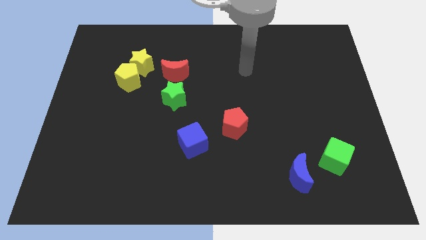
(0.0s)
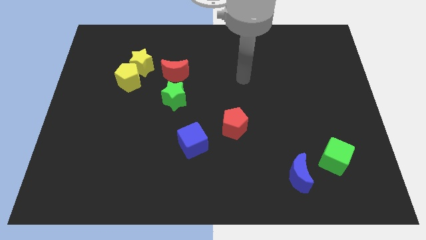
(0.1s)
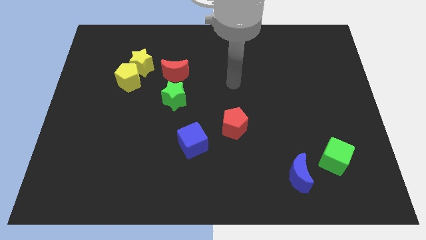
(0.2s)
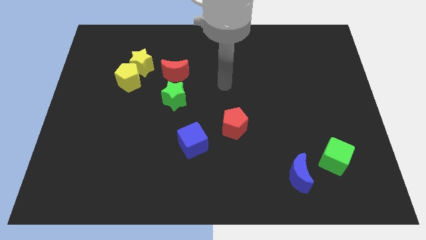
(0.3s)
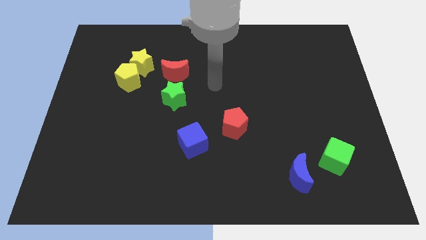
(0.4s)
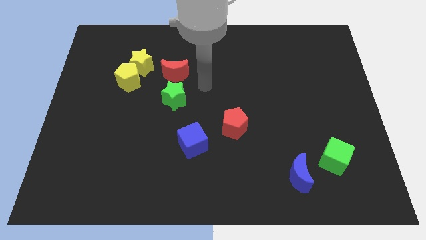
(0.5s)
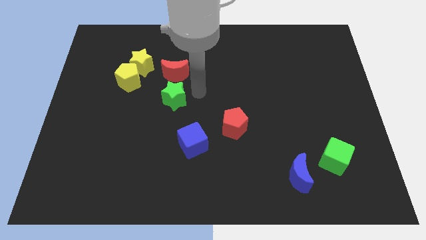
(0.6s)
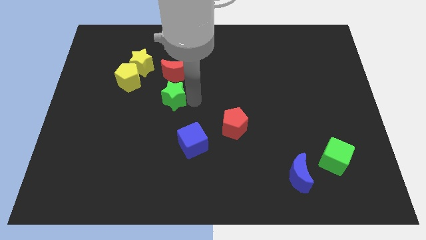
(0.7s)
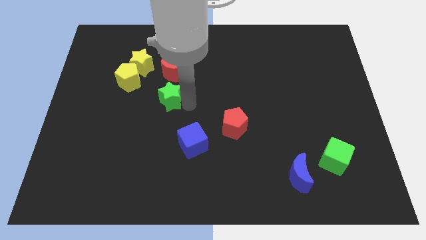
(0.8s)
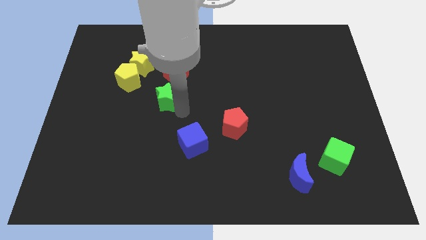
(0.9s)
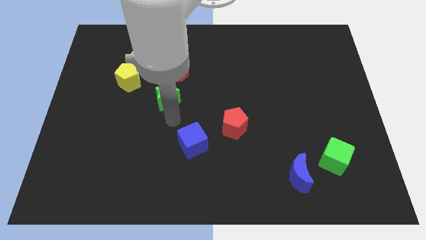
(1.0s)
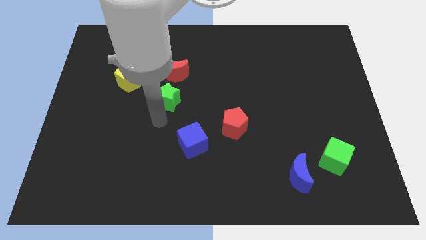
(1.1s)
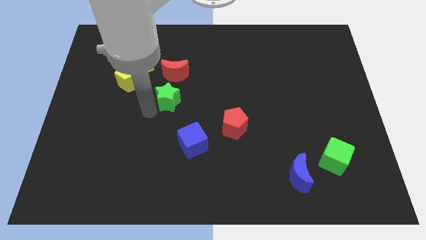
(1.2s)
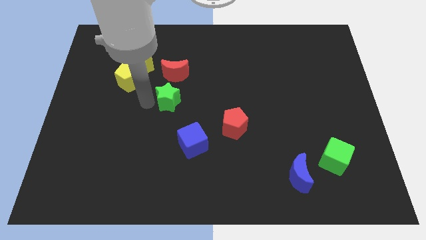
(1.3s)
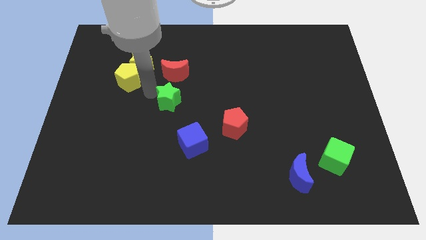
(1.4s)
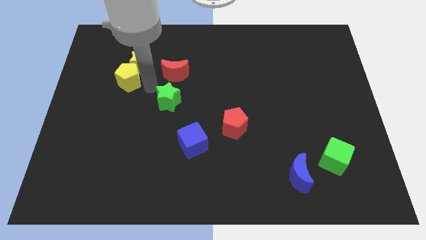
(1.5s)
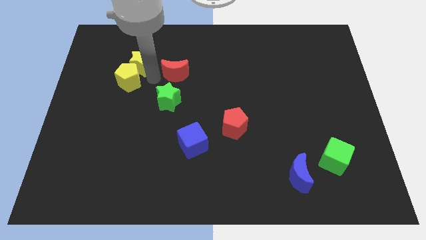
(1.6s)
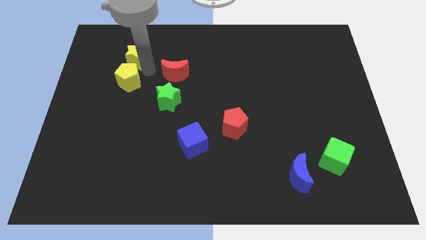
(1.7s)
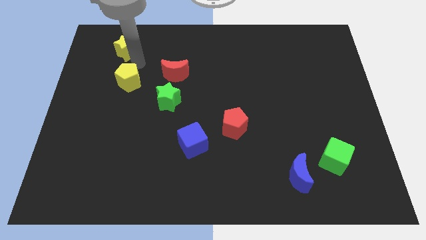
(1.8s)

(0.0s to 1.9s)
pull the yellow pentagon apart from the yellow star

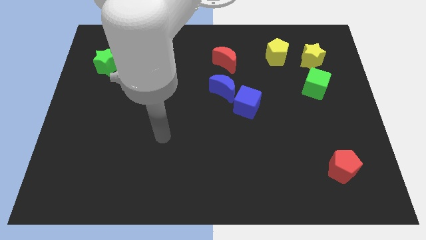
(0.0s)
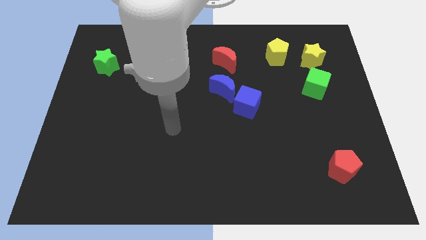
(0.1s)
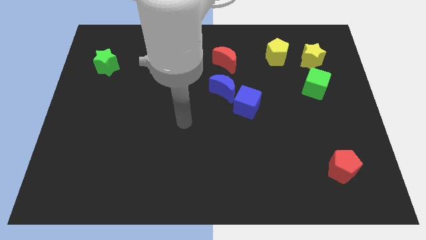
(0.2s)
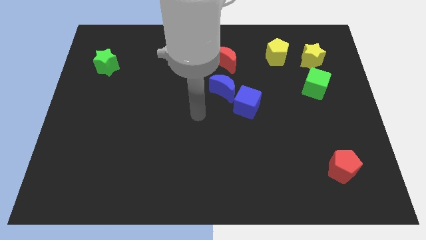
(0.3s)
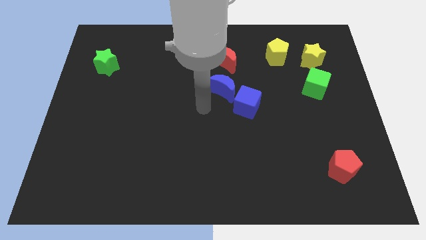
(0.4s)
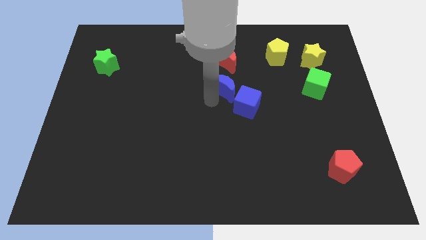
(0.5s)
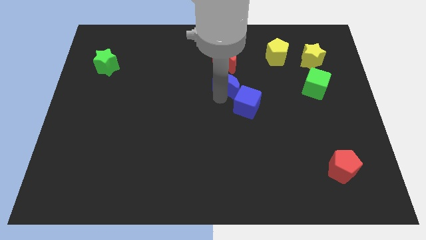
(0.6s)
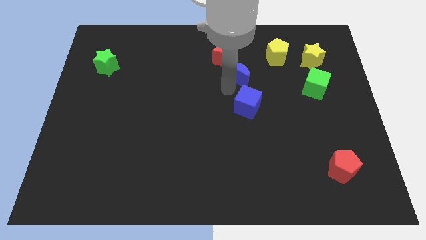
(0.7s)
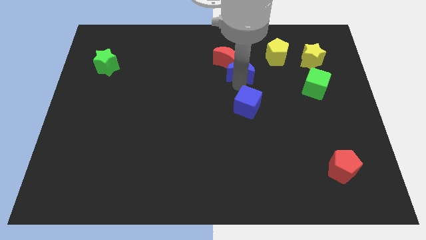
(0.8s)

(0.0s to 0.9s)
separate the blue cube from the blue moon

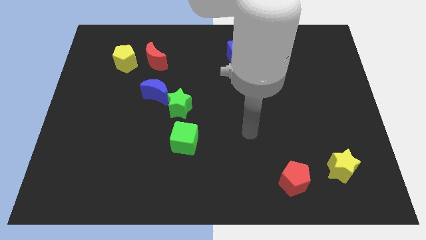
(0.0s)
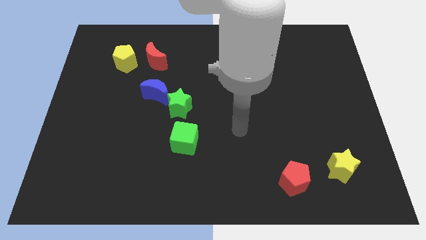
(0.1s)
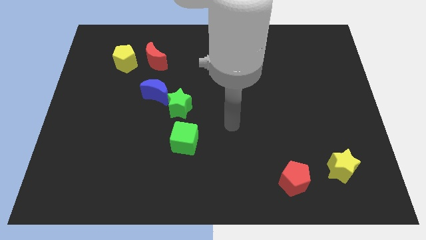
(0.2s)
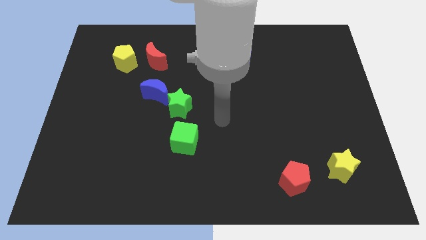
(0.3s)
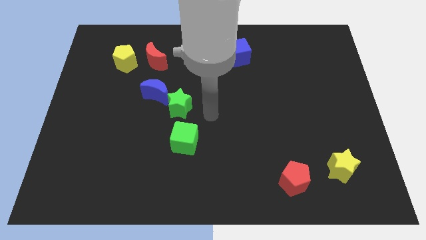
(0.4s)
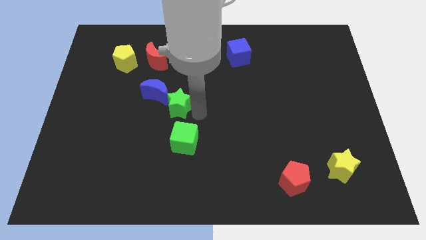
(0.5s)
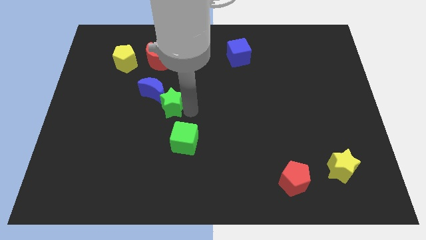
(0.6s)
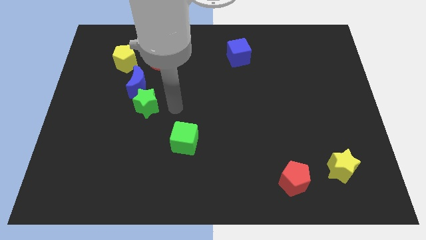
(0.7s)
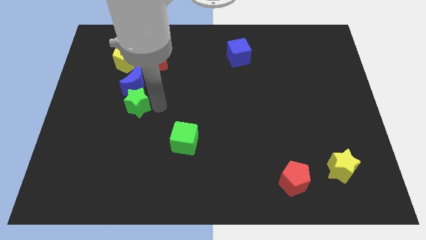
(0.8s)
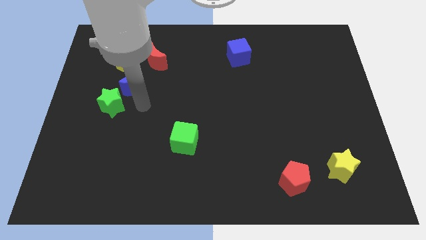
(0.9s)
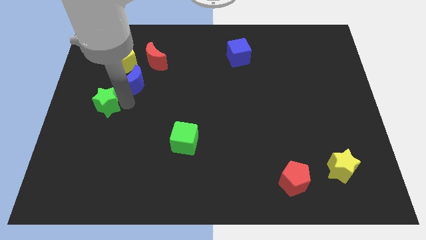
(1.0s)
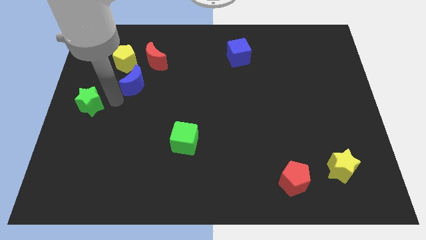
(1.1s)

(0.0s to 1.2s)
pull the blue moon apart from the green star

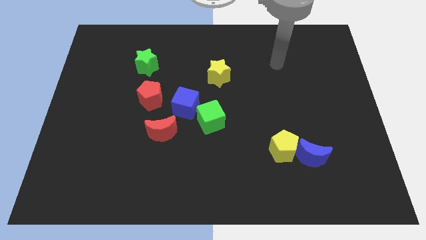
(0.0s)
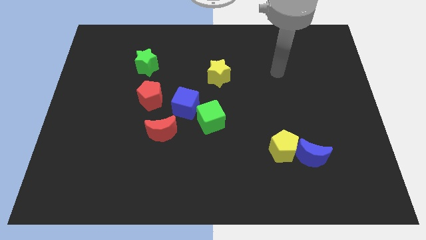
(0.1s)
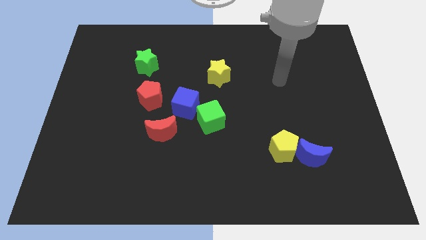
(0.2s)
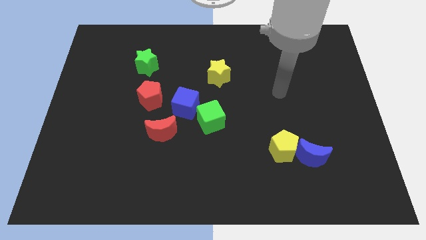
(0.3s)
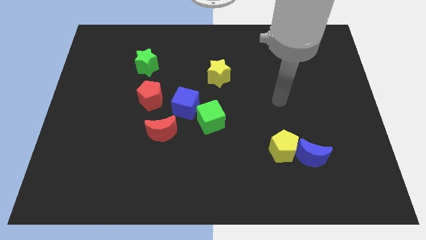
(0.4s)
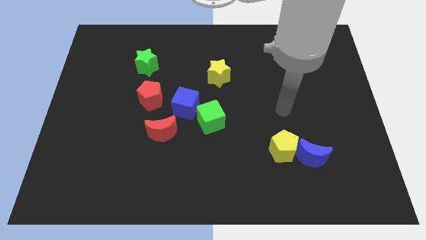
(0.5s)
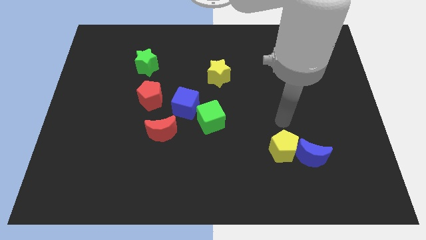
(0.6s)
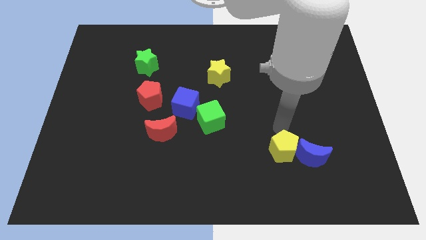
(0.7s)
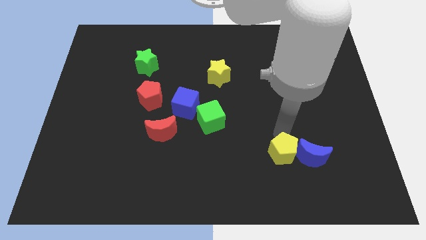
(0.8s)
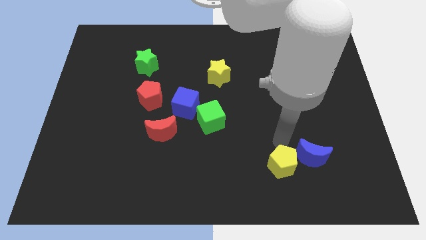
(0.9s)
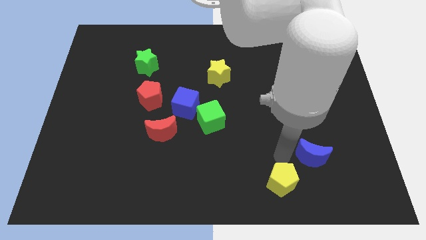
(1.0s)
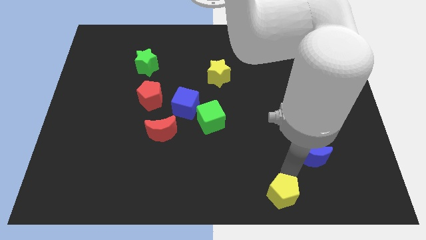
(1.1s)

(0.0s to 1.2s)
pull the blue moon apart from the yellow pentagon

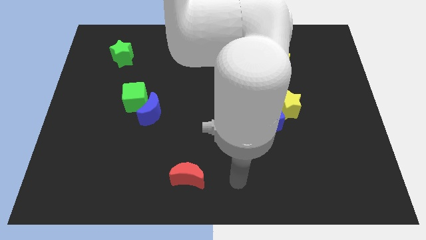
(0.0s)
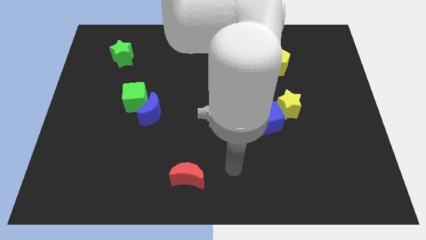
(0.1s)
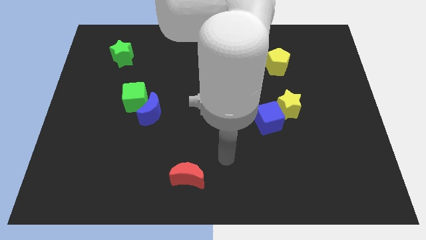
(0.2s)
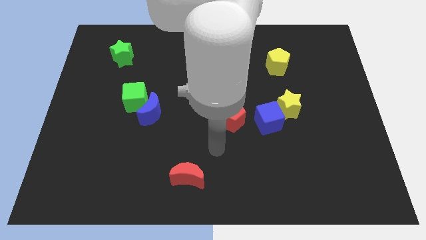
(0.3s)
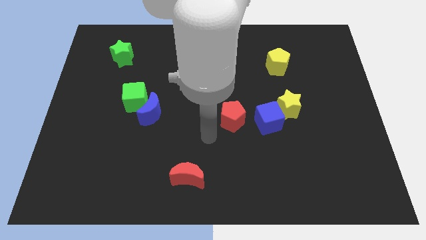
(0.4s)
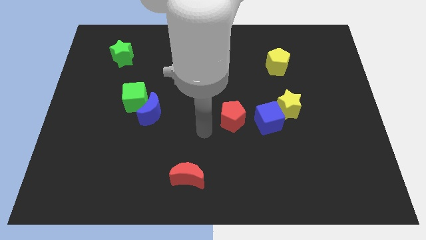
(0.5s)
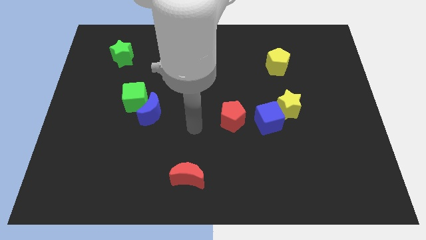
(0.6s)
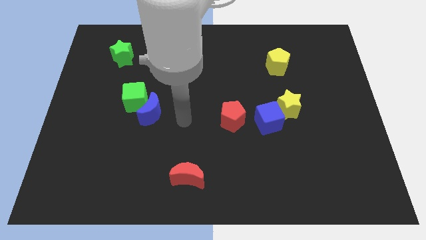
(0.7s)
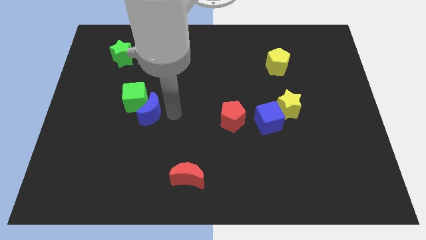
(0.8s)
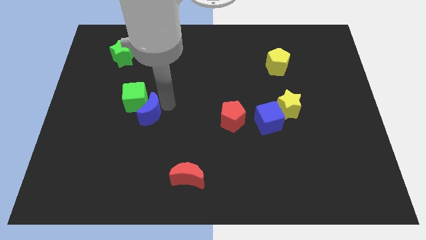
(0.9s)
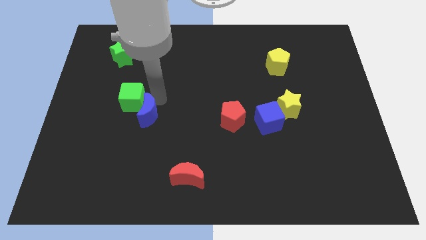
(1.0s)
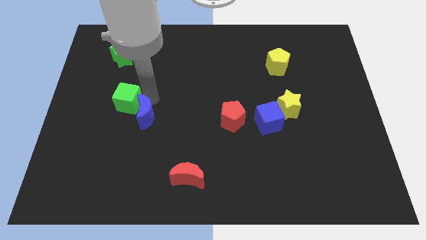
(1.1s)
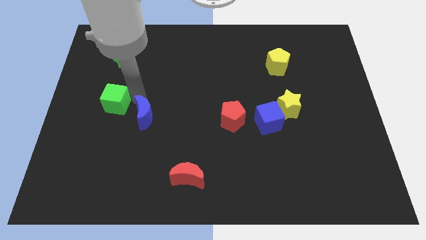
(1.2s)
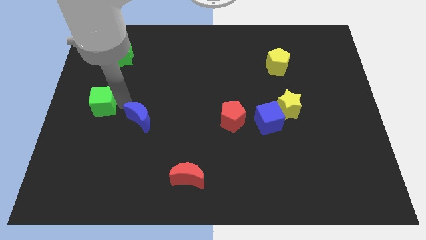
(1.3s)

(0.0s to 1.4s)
separate the blue moon from the green cube

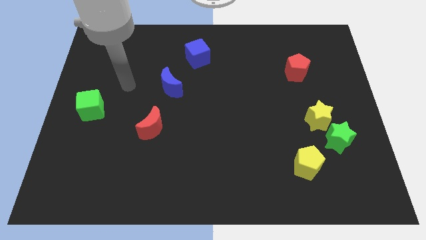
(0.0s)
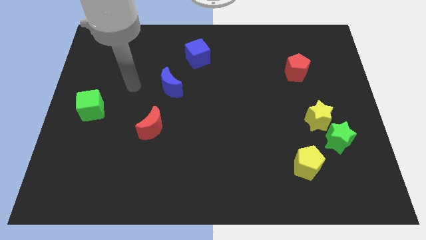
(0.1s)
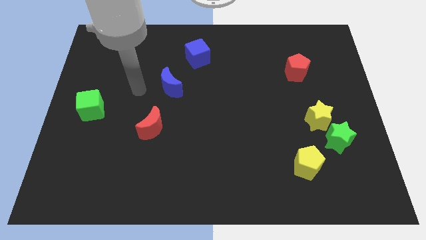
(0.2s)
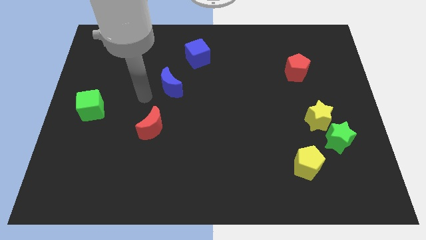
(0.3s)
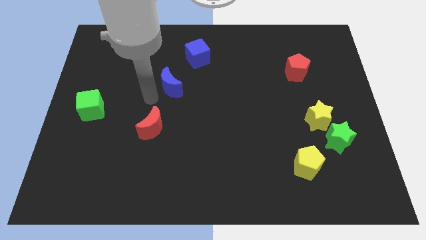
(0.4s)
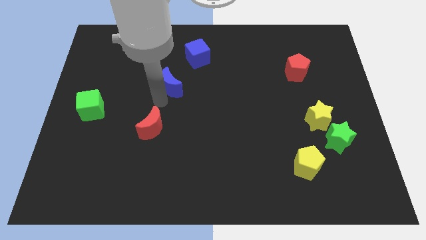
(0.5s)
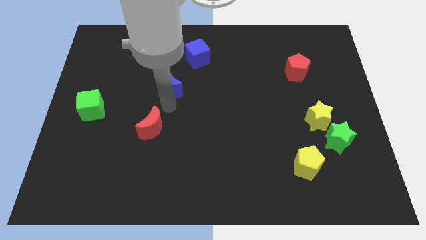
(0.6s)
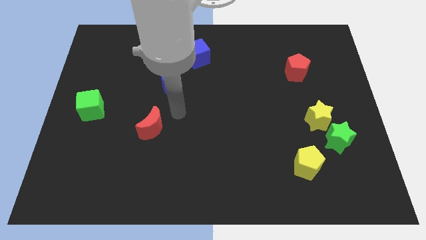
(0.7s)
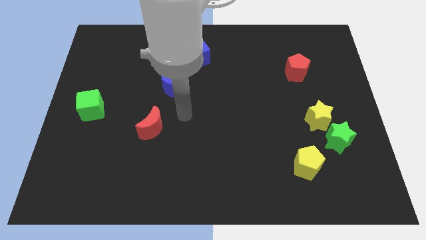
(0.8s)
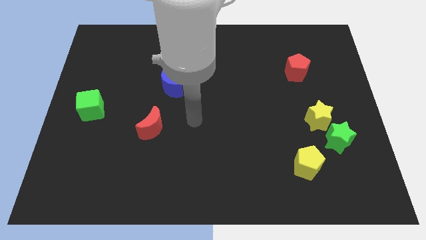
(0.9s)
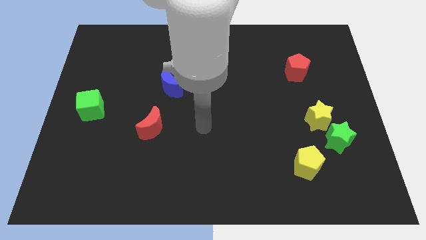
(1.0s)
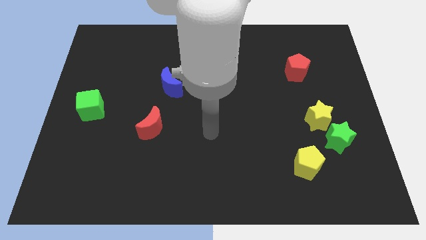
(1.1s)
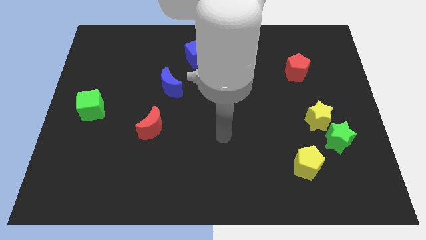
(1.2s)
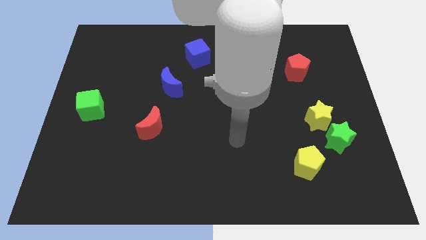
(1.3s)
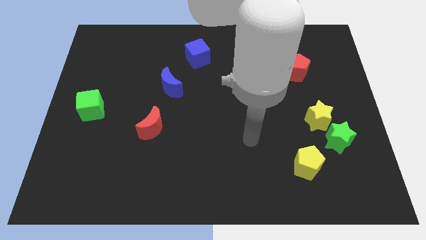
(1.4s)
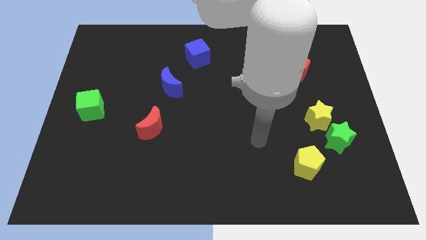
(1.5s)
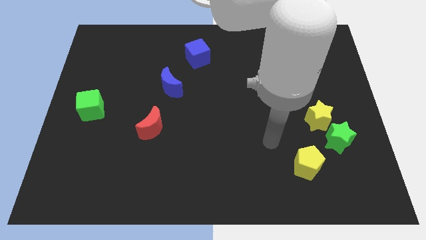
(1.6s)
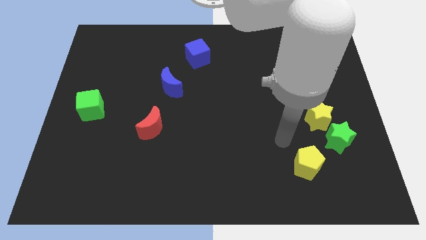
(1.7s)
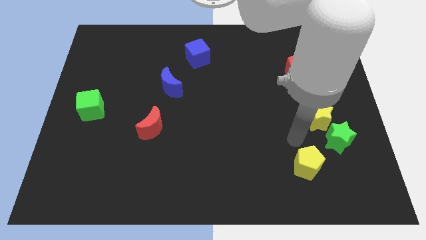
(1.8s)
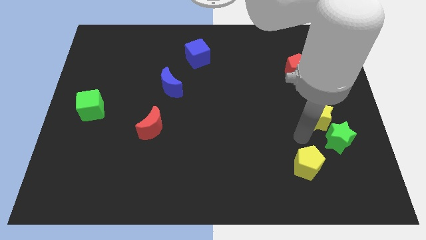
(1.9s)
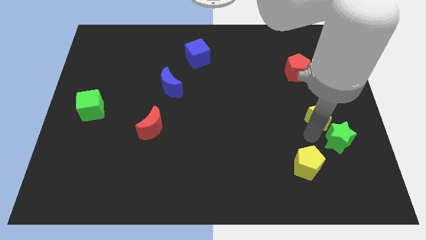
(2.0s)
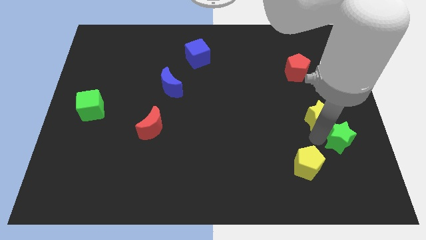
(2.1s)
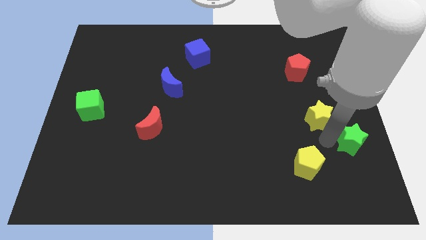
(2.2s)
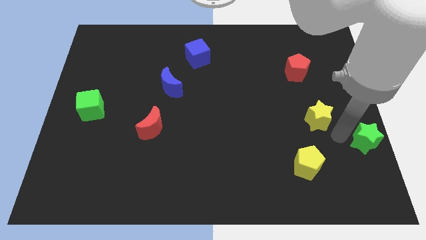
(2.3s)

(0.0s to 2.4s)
move the yellow star away from the green star

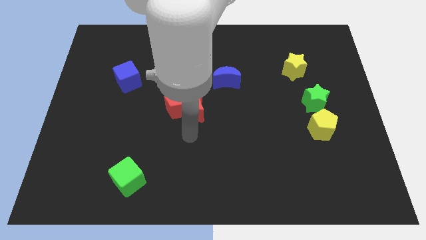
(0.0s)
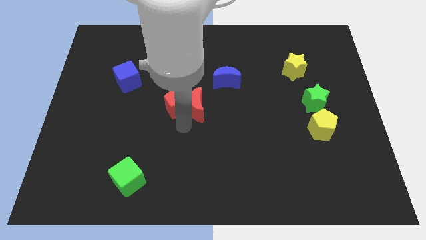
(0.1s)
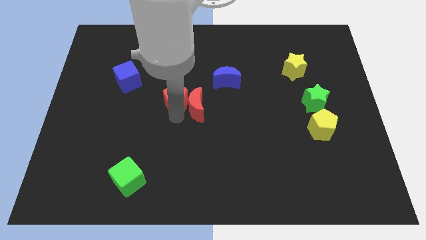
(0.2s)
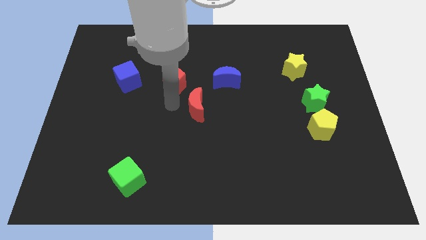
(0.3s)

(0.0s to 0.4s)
pull the red moon apart from the red pentagon
